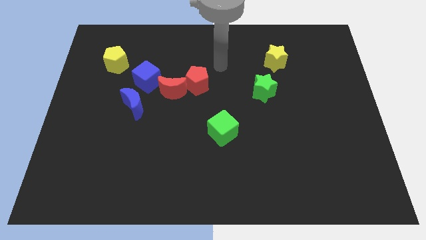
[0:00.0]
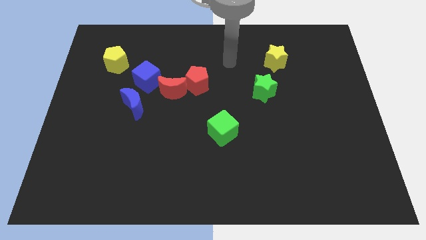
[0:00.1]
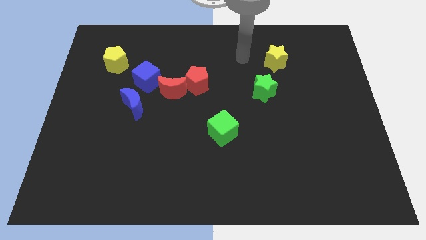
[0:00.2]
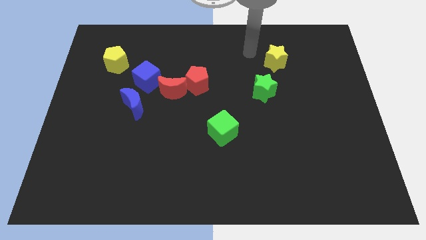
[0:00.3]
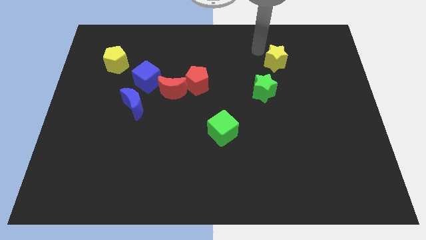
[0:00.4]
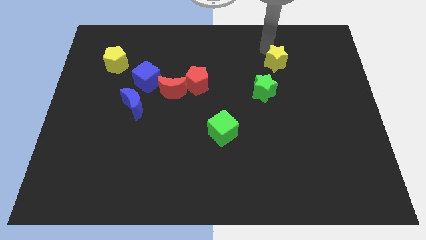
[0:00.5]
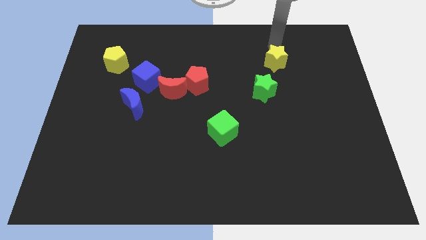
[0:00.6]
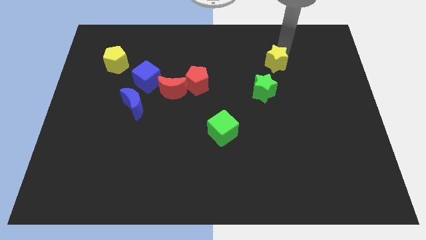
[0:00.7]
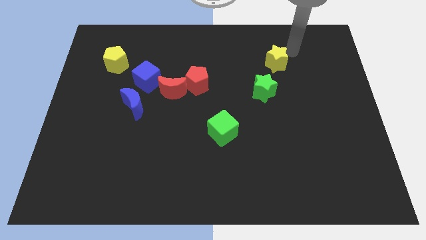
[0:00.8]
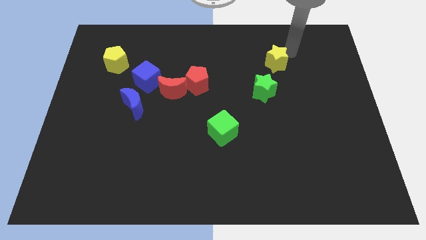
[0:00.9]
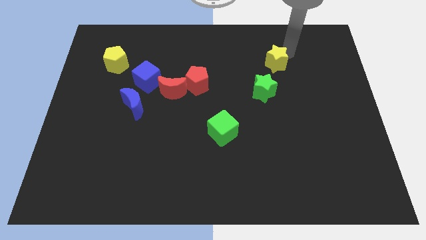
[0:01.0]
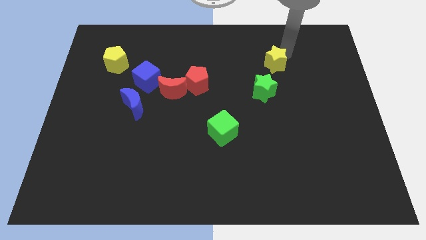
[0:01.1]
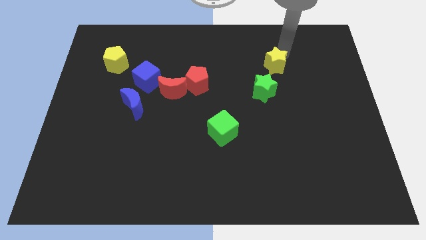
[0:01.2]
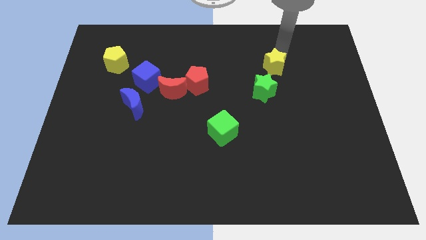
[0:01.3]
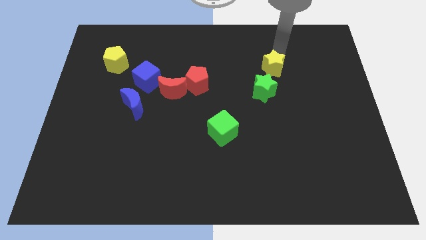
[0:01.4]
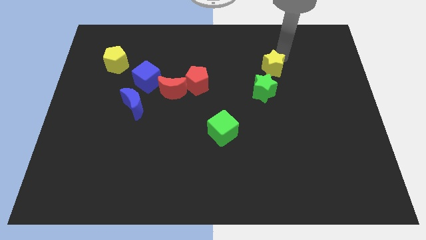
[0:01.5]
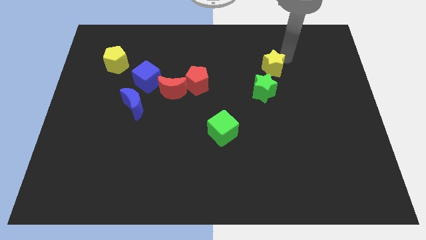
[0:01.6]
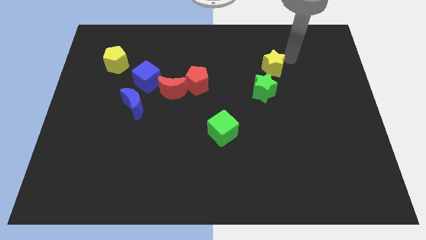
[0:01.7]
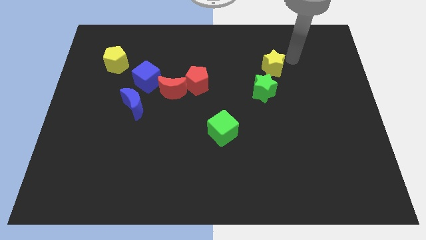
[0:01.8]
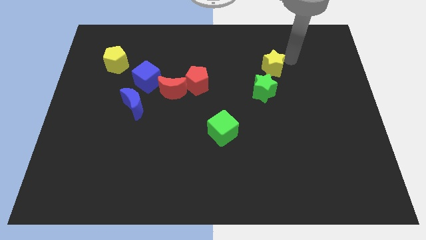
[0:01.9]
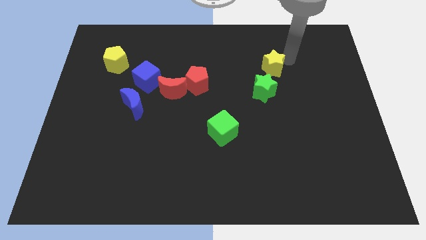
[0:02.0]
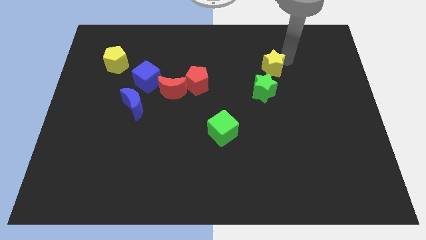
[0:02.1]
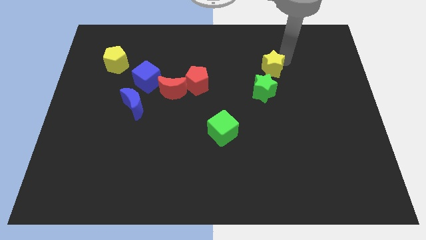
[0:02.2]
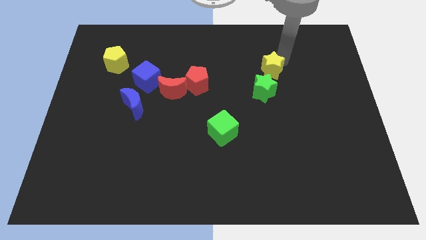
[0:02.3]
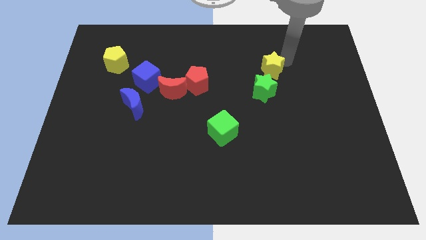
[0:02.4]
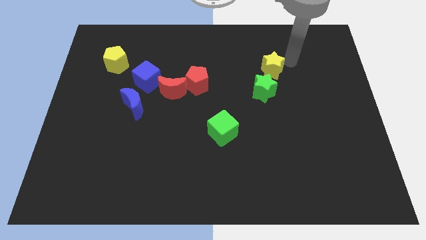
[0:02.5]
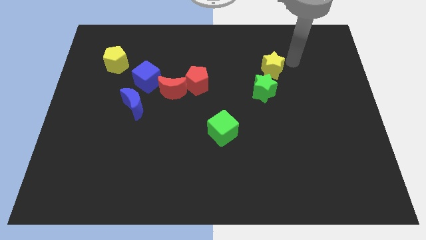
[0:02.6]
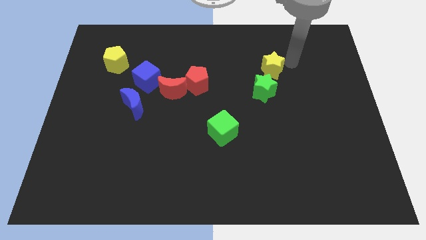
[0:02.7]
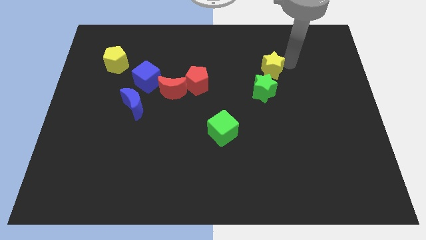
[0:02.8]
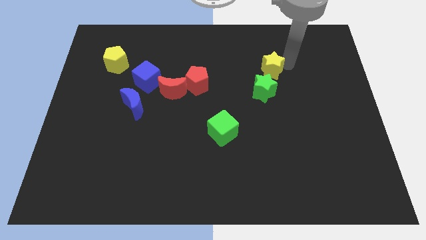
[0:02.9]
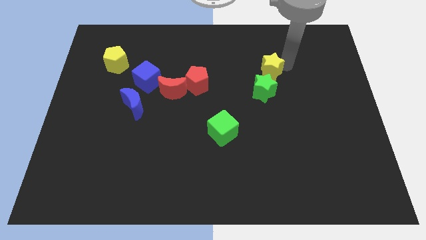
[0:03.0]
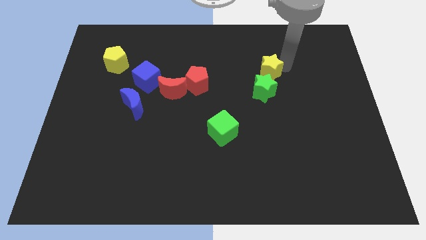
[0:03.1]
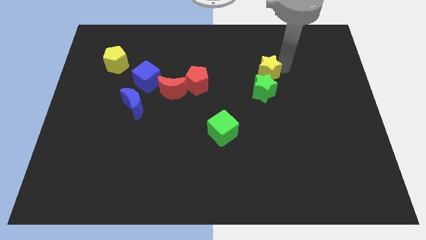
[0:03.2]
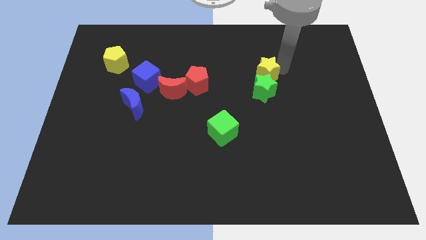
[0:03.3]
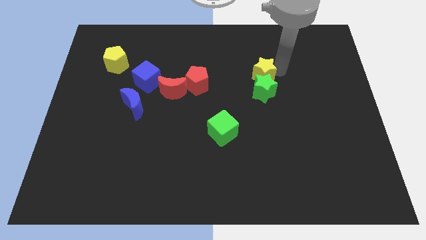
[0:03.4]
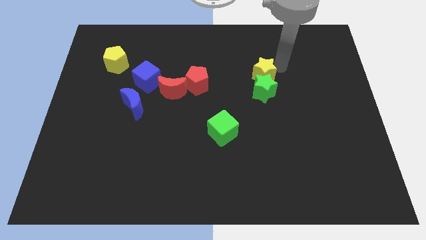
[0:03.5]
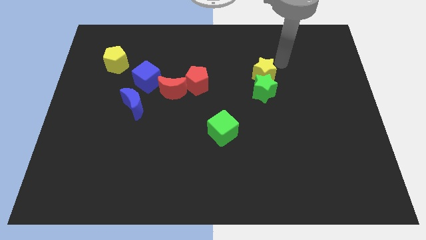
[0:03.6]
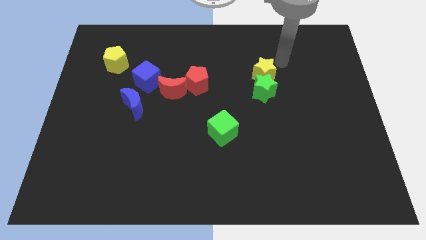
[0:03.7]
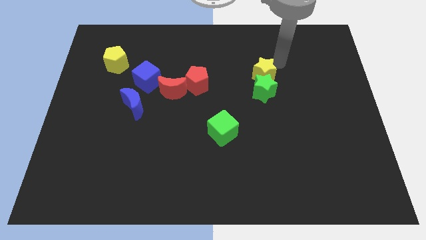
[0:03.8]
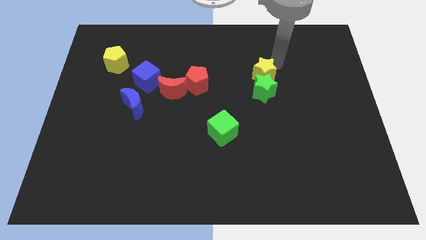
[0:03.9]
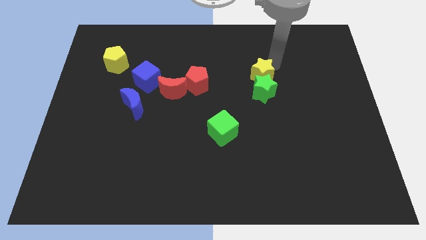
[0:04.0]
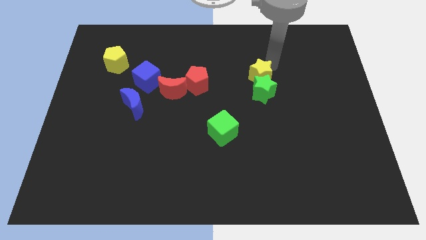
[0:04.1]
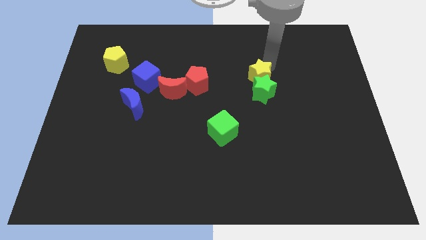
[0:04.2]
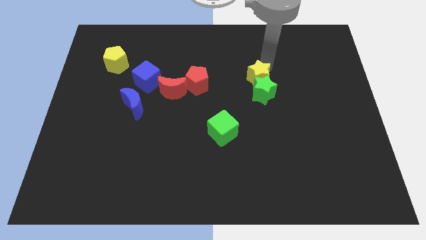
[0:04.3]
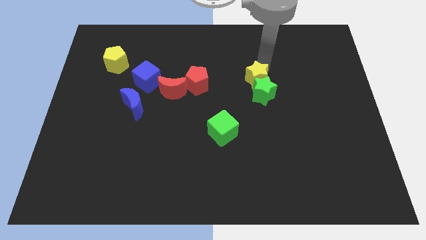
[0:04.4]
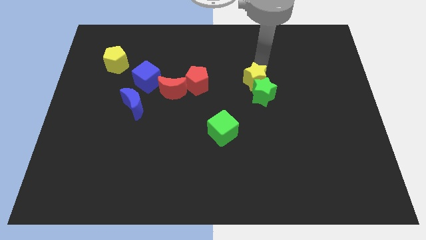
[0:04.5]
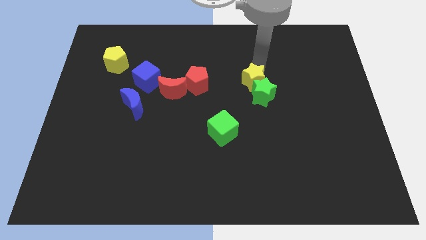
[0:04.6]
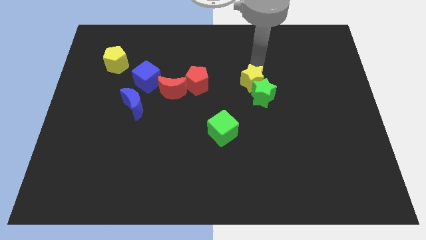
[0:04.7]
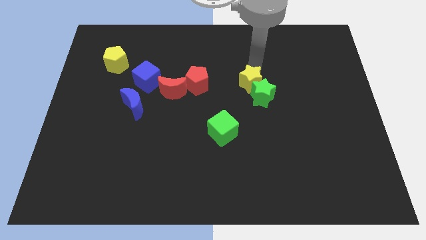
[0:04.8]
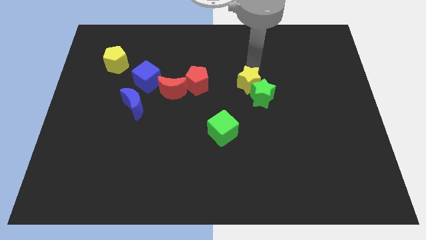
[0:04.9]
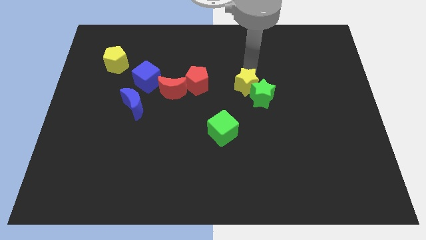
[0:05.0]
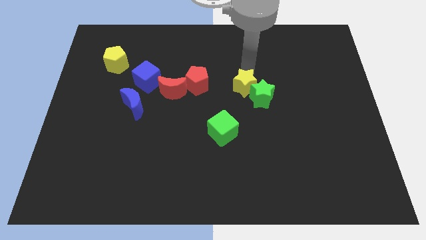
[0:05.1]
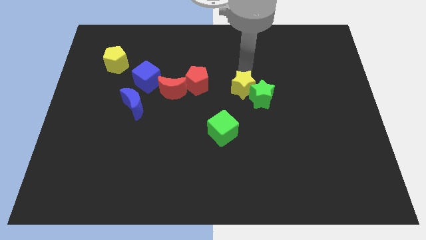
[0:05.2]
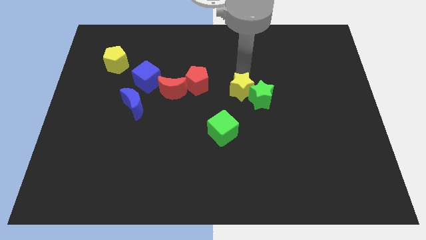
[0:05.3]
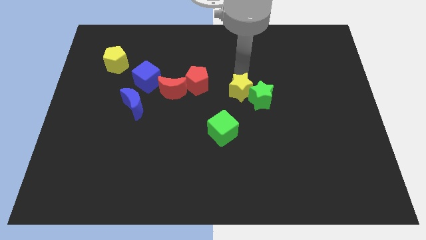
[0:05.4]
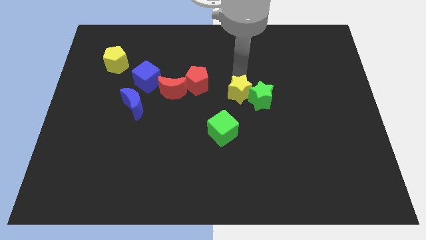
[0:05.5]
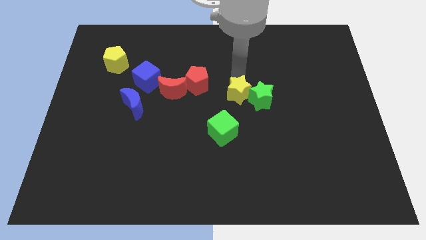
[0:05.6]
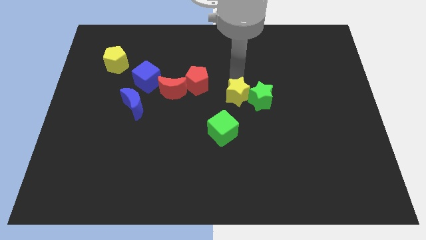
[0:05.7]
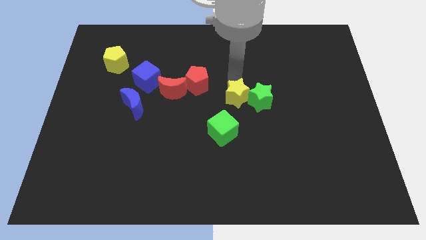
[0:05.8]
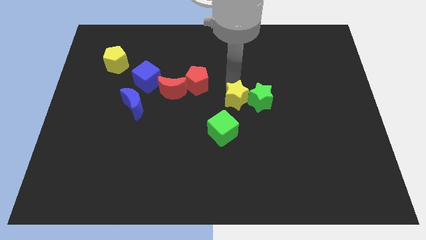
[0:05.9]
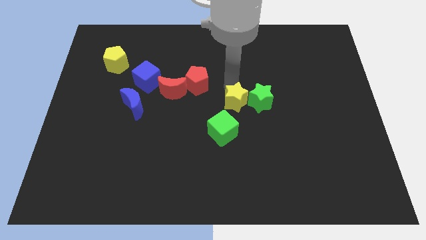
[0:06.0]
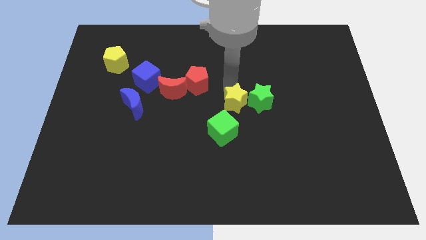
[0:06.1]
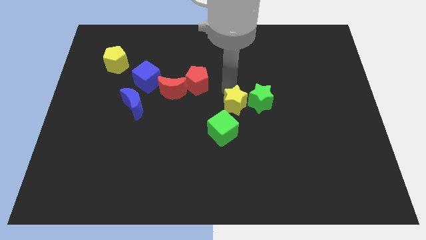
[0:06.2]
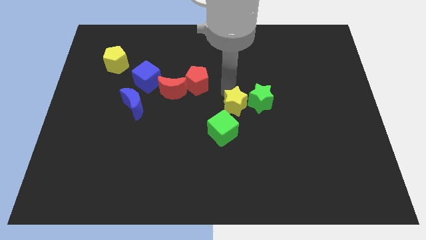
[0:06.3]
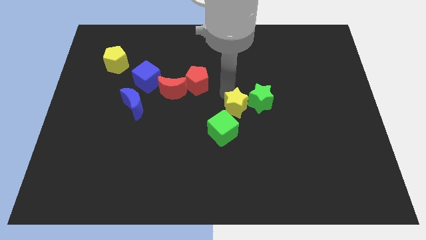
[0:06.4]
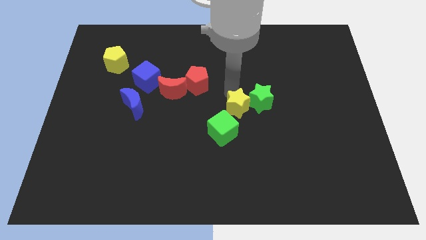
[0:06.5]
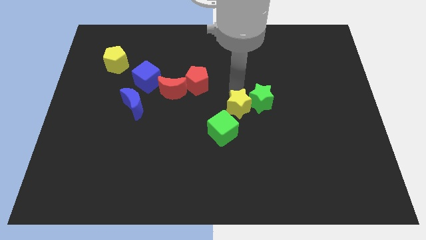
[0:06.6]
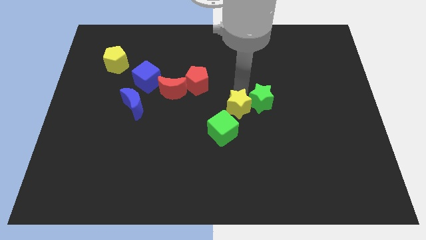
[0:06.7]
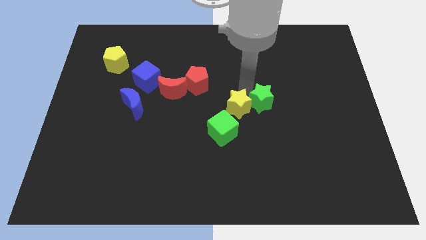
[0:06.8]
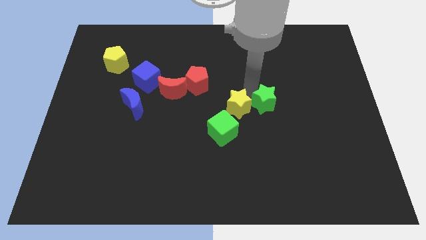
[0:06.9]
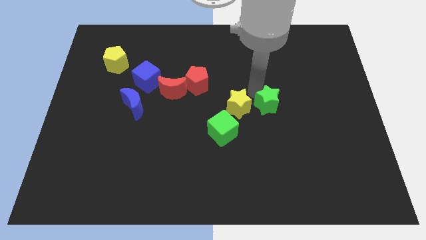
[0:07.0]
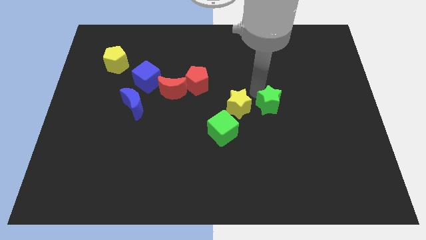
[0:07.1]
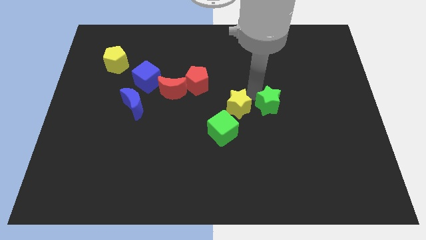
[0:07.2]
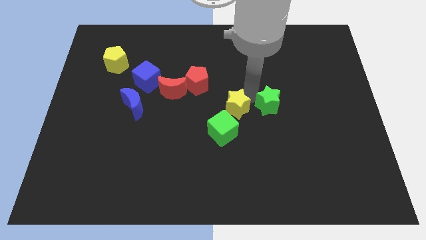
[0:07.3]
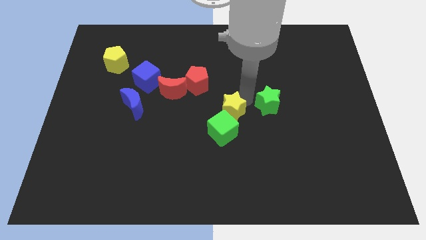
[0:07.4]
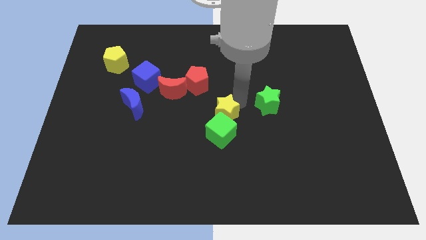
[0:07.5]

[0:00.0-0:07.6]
slide the yellow star to the green cube
